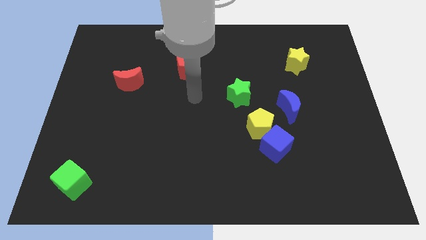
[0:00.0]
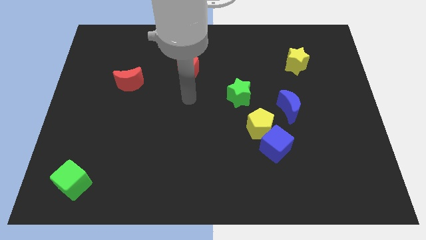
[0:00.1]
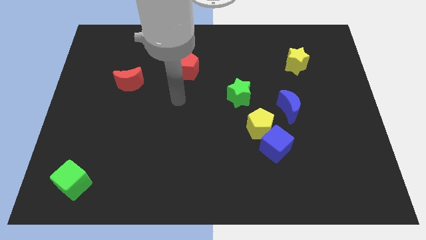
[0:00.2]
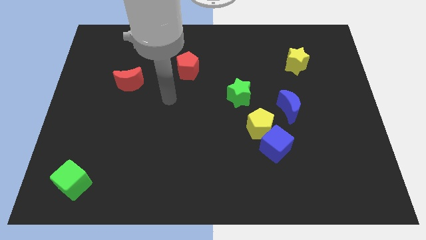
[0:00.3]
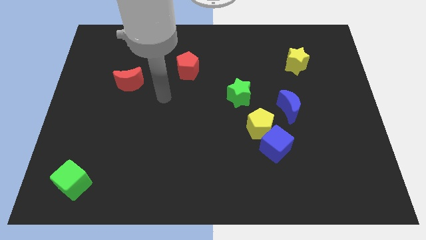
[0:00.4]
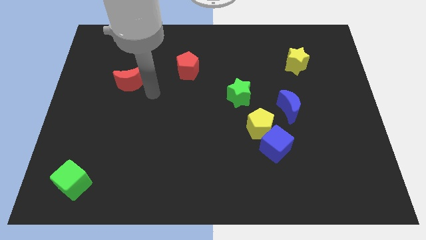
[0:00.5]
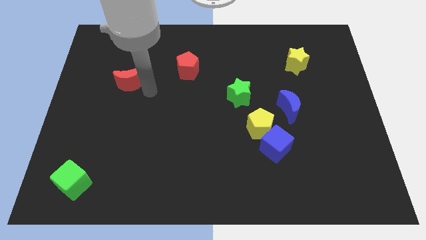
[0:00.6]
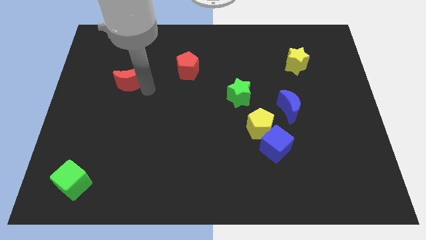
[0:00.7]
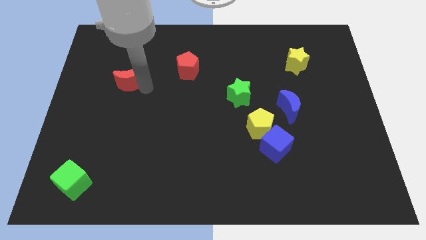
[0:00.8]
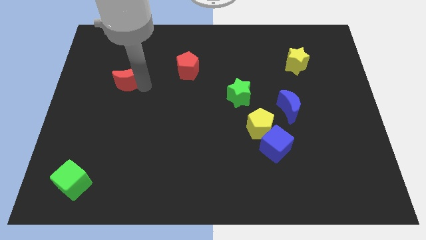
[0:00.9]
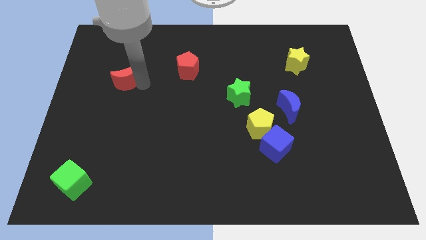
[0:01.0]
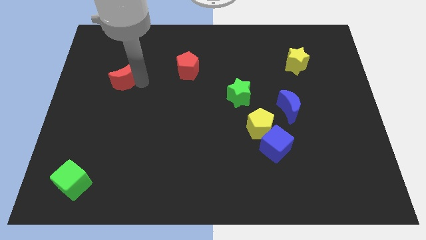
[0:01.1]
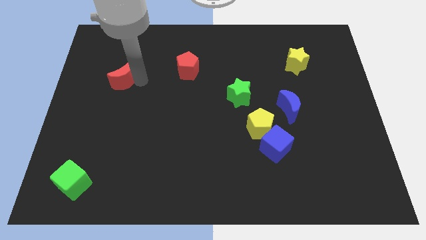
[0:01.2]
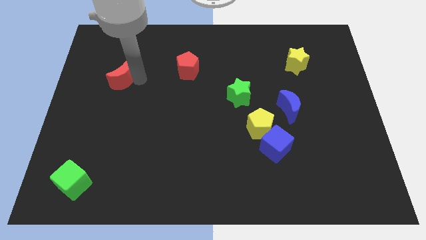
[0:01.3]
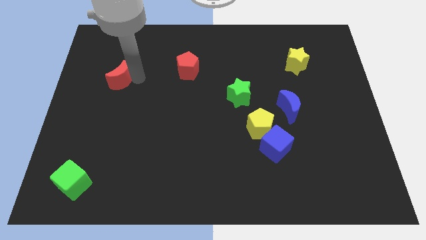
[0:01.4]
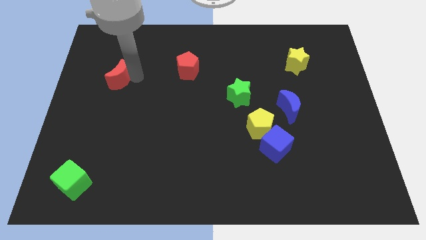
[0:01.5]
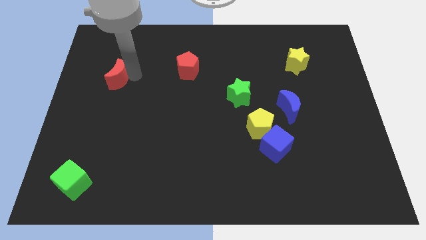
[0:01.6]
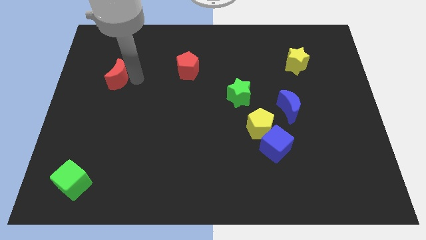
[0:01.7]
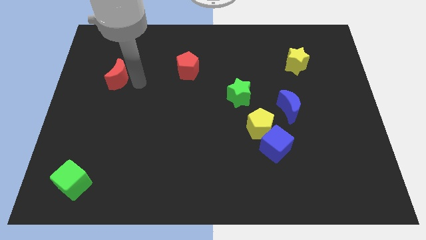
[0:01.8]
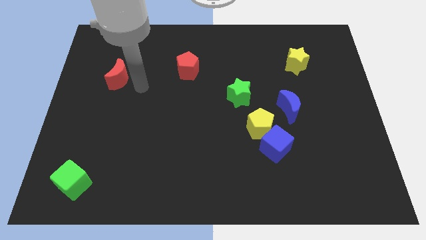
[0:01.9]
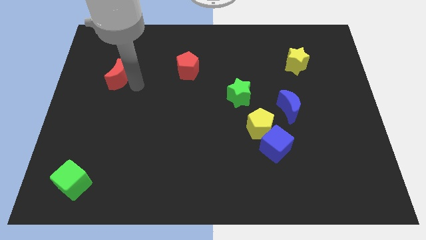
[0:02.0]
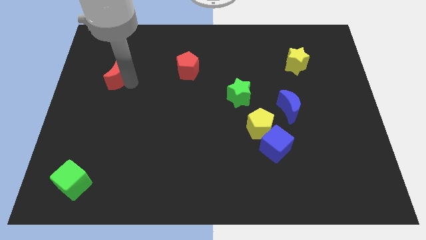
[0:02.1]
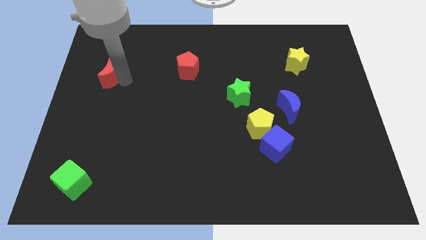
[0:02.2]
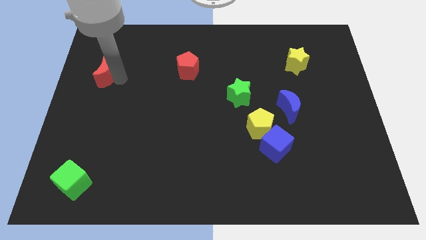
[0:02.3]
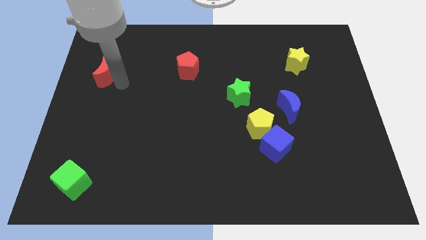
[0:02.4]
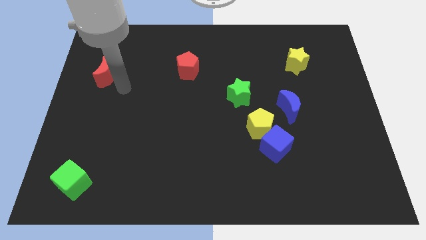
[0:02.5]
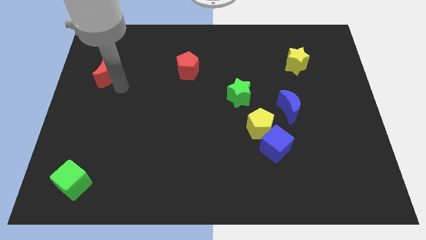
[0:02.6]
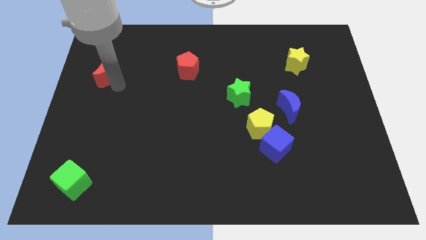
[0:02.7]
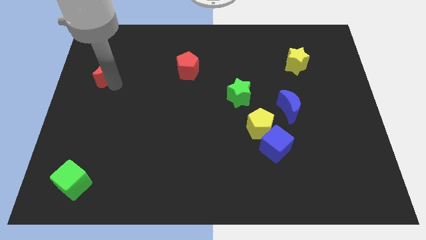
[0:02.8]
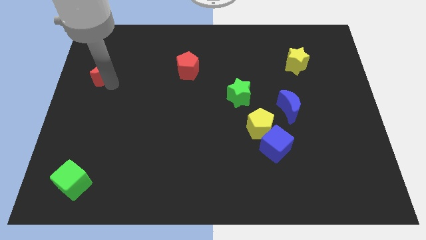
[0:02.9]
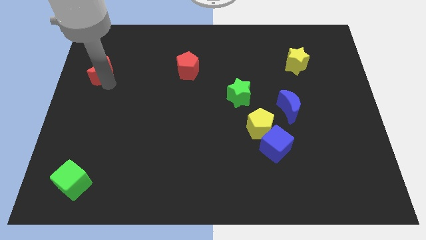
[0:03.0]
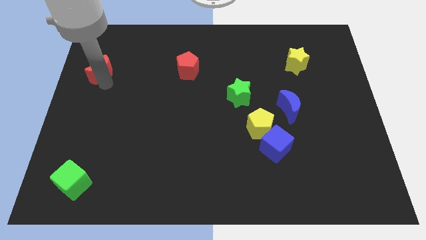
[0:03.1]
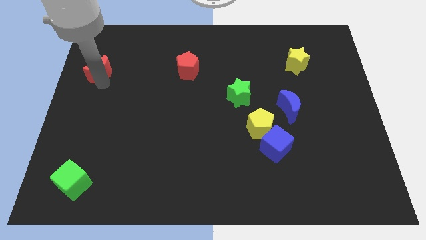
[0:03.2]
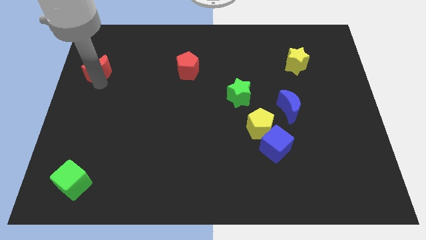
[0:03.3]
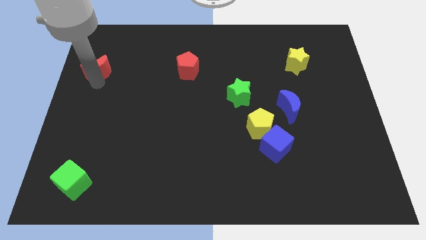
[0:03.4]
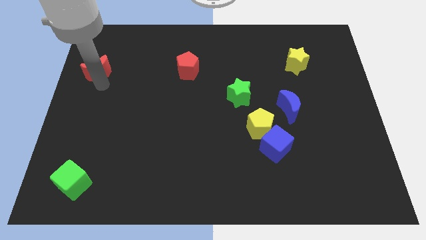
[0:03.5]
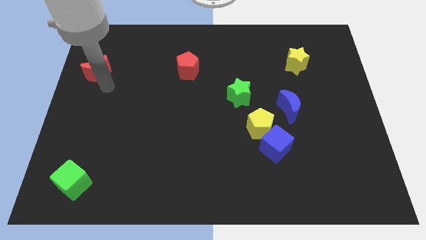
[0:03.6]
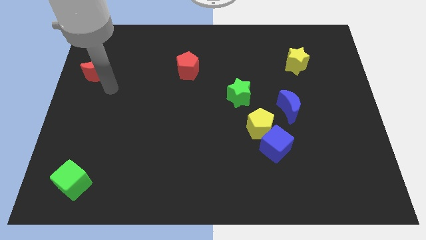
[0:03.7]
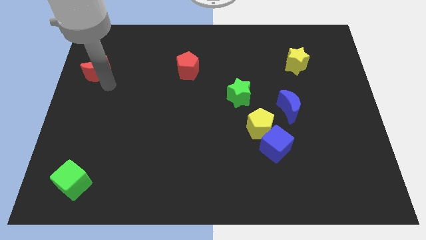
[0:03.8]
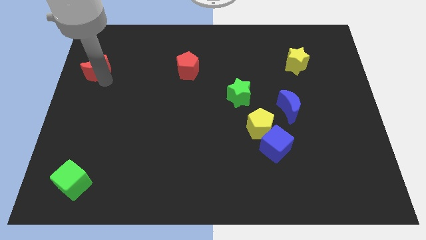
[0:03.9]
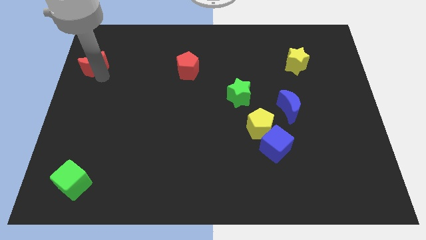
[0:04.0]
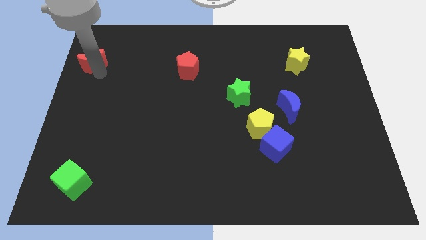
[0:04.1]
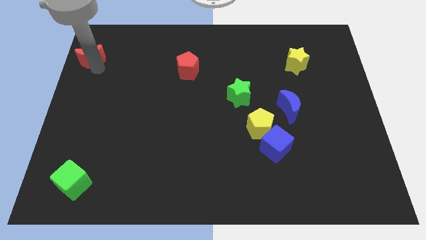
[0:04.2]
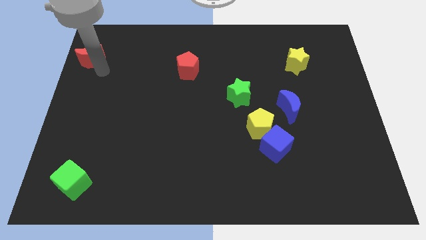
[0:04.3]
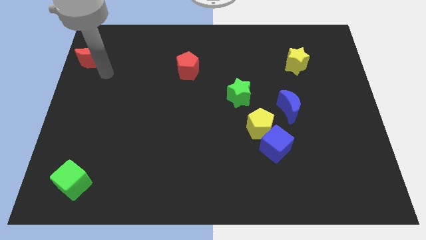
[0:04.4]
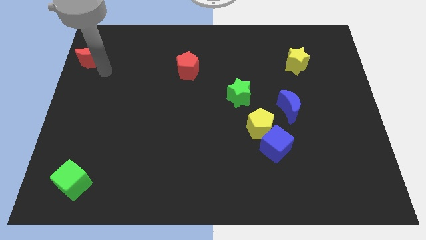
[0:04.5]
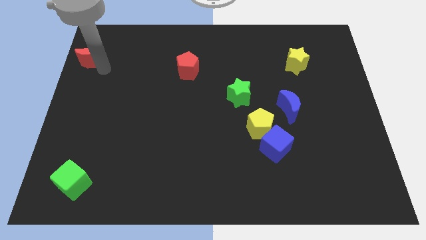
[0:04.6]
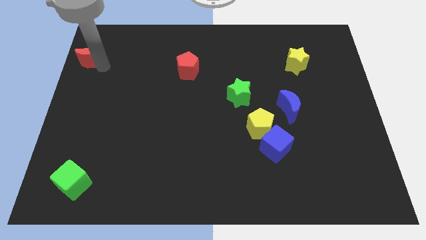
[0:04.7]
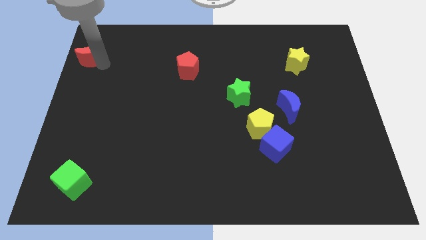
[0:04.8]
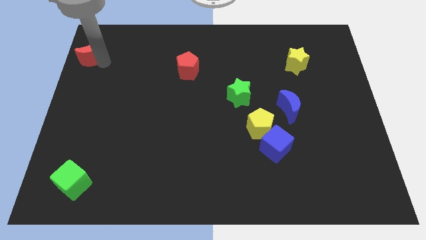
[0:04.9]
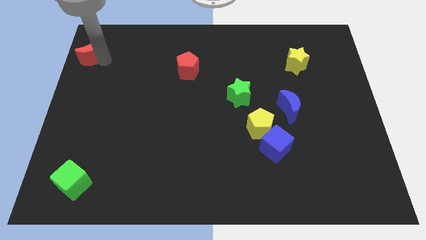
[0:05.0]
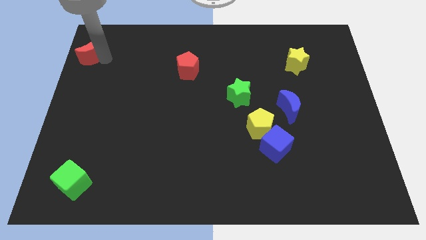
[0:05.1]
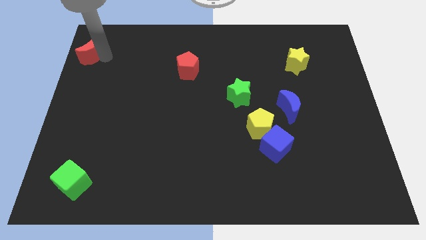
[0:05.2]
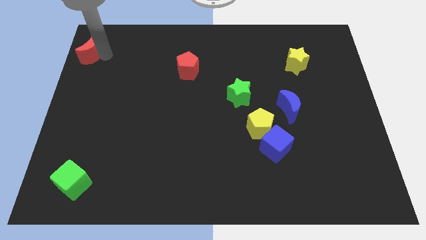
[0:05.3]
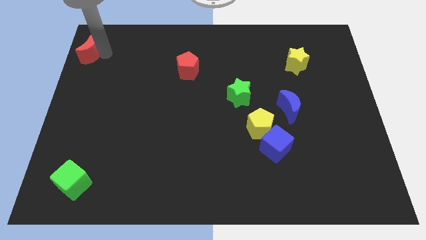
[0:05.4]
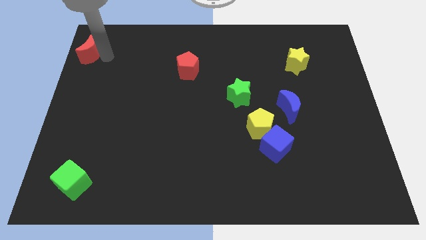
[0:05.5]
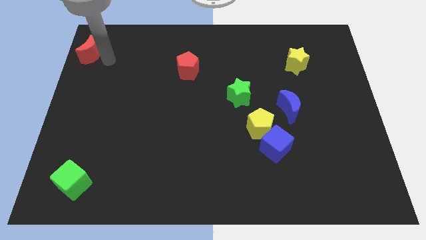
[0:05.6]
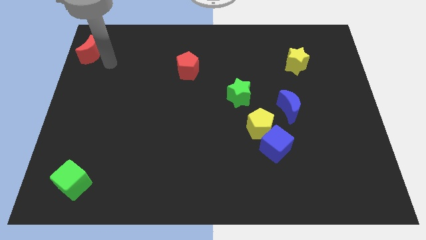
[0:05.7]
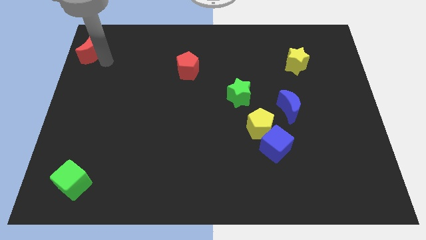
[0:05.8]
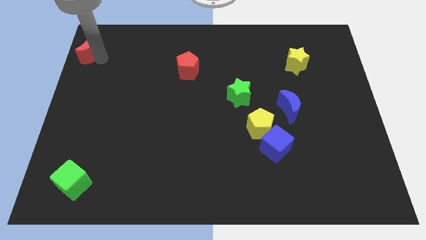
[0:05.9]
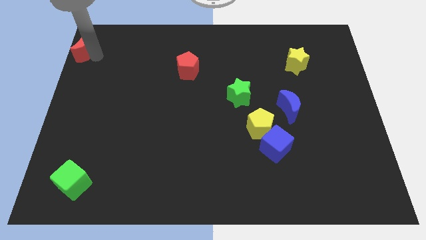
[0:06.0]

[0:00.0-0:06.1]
push the red moon to the top left of the board

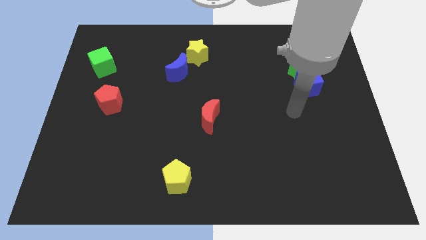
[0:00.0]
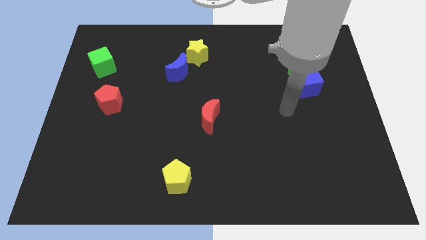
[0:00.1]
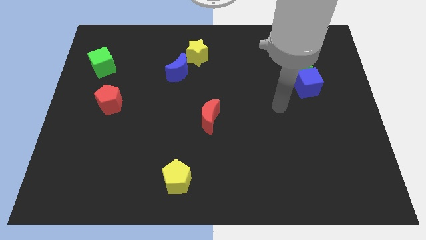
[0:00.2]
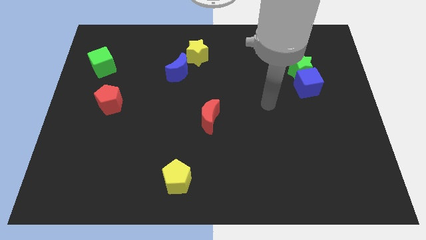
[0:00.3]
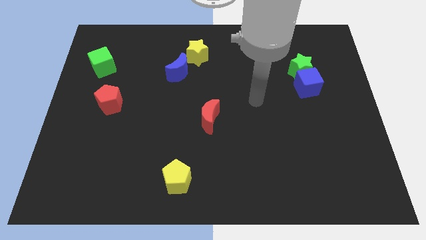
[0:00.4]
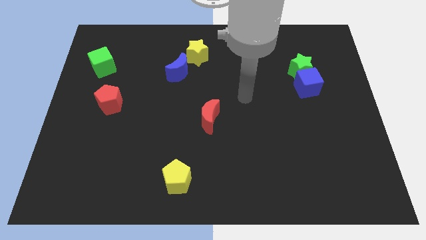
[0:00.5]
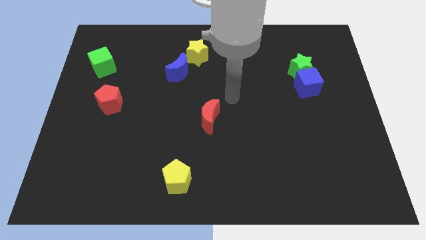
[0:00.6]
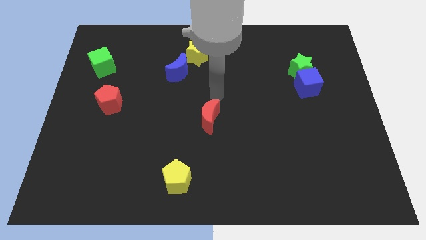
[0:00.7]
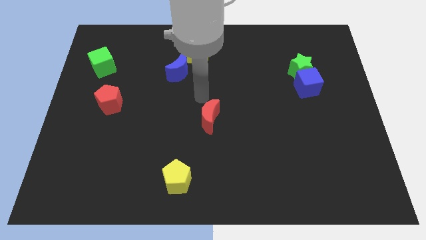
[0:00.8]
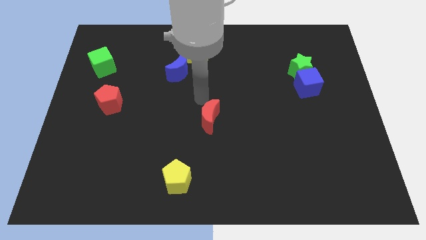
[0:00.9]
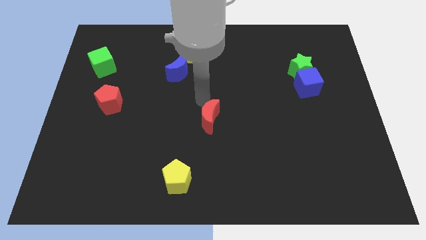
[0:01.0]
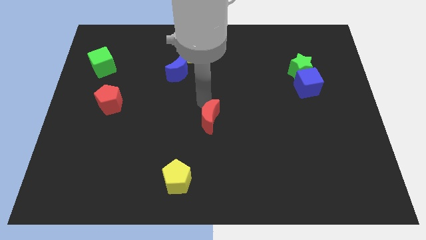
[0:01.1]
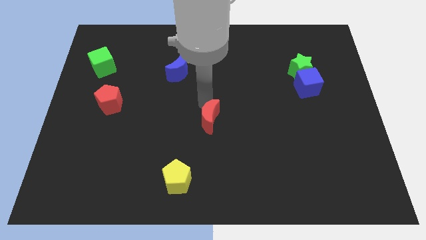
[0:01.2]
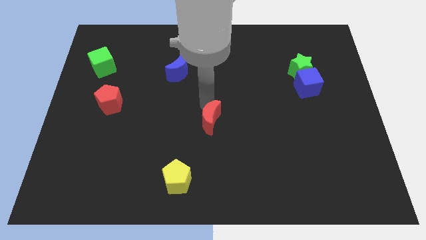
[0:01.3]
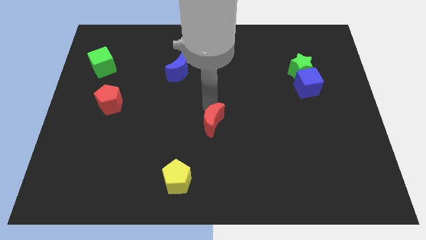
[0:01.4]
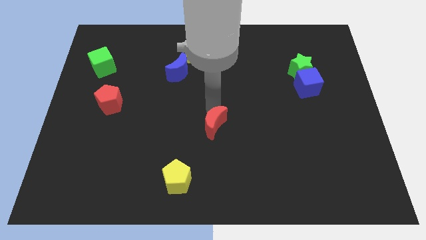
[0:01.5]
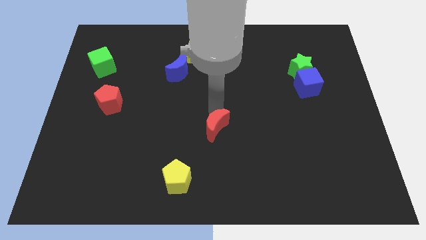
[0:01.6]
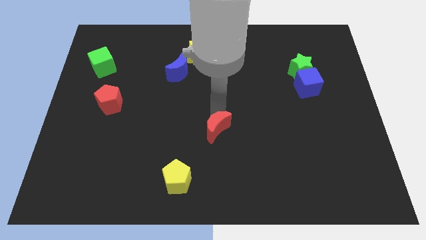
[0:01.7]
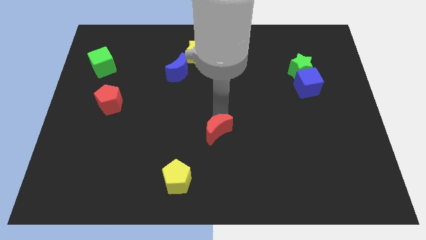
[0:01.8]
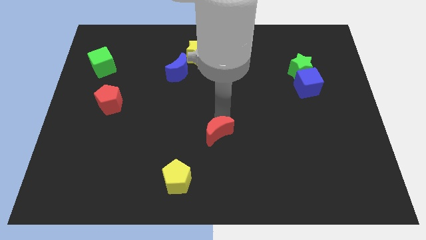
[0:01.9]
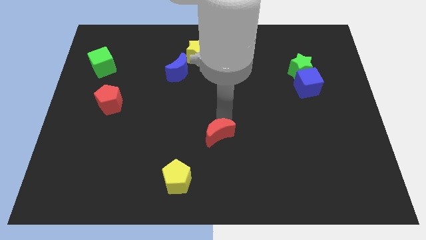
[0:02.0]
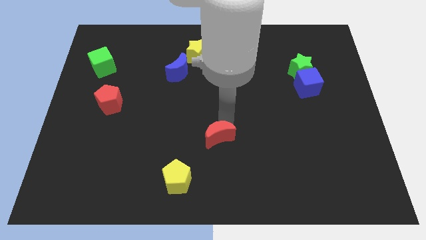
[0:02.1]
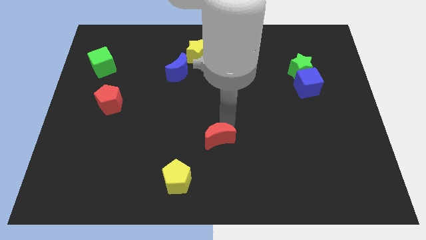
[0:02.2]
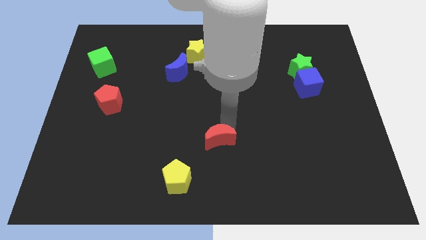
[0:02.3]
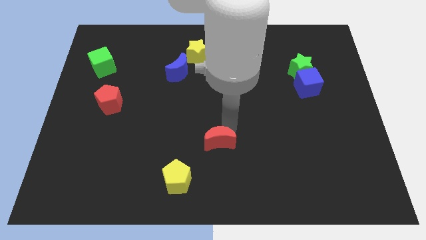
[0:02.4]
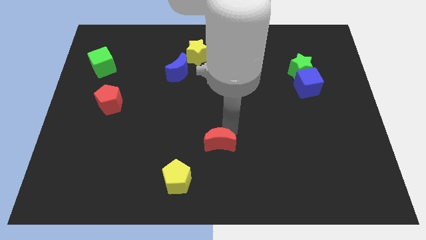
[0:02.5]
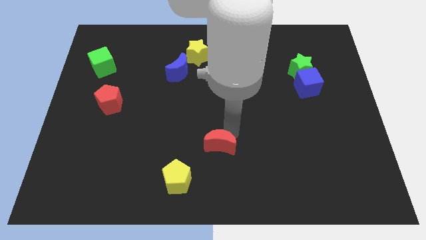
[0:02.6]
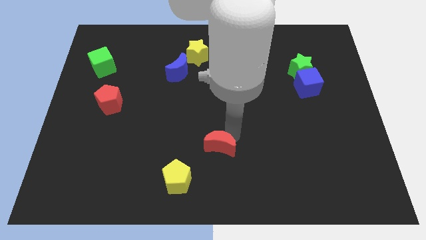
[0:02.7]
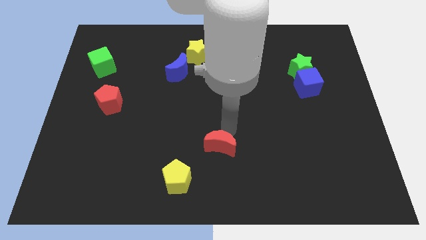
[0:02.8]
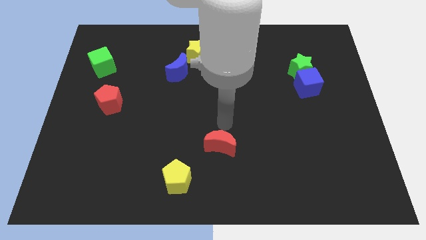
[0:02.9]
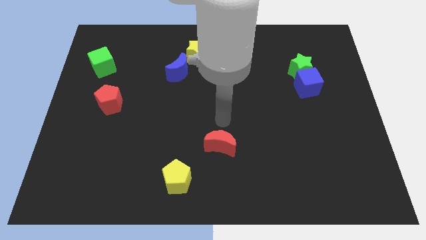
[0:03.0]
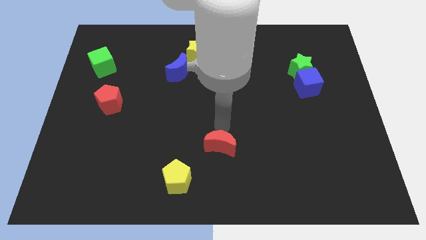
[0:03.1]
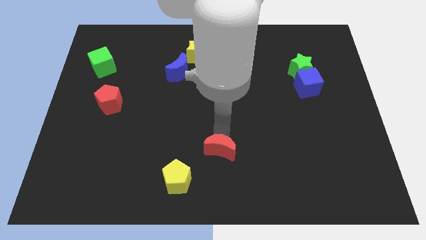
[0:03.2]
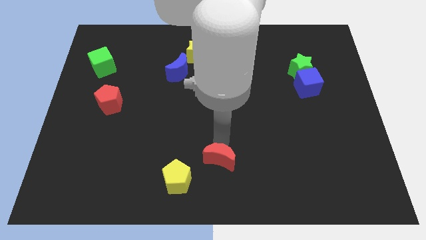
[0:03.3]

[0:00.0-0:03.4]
move the red moon to the bottom
